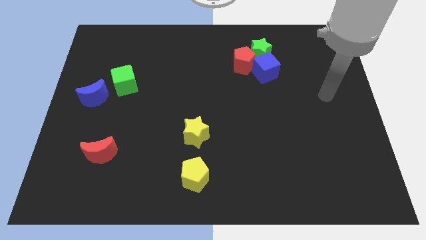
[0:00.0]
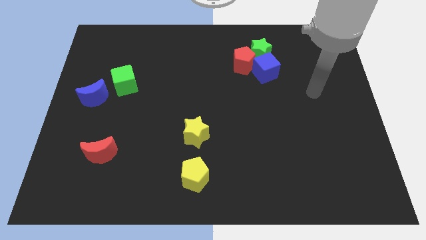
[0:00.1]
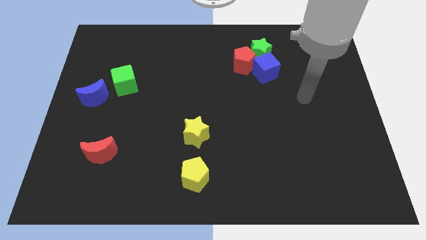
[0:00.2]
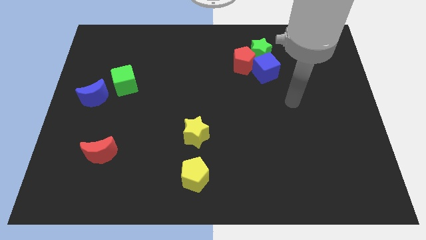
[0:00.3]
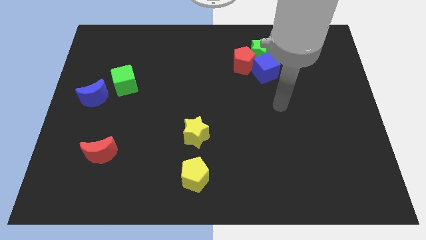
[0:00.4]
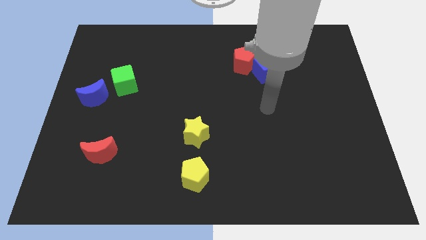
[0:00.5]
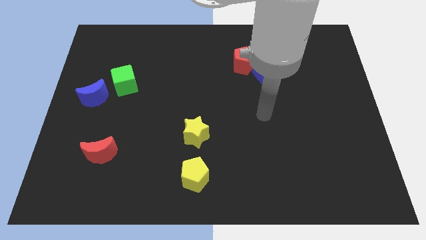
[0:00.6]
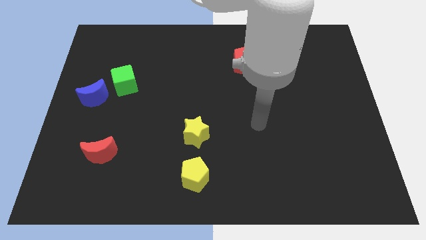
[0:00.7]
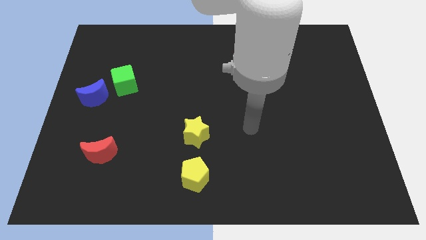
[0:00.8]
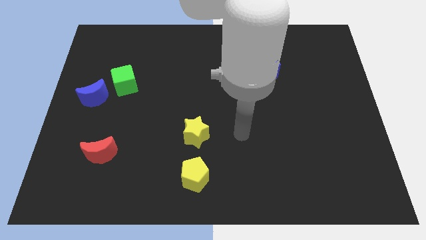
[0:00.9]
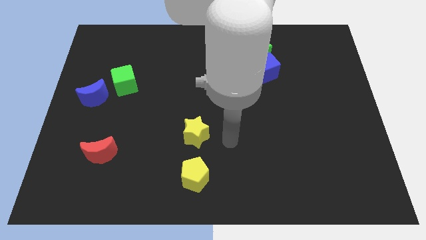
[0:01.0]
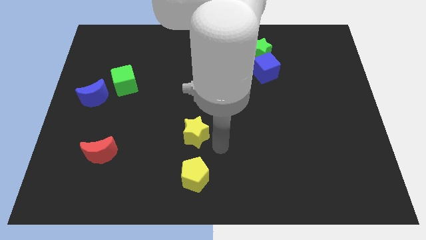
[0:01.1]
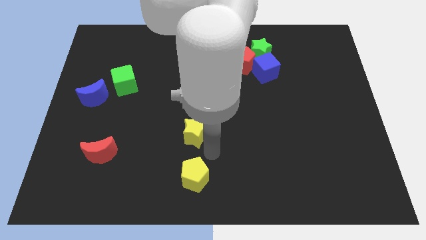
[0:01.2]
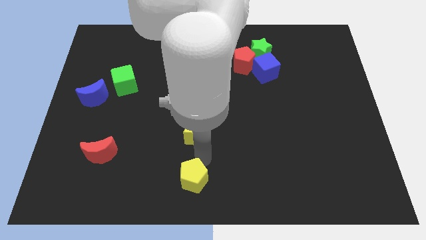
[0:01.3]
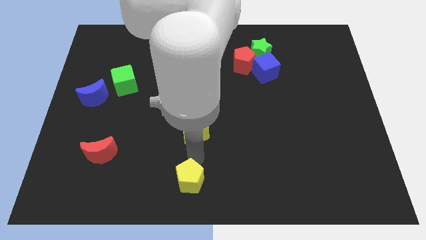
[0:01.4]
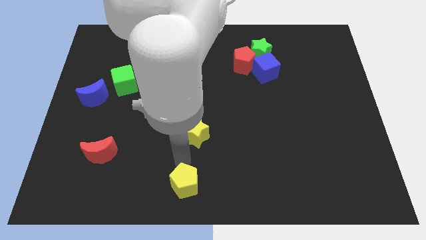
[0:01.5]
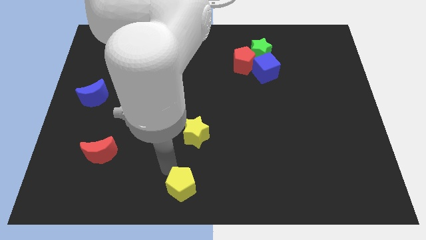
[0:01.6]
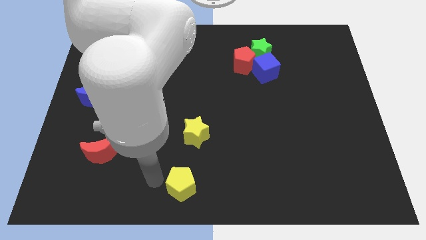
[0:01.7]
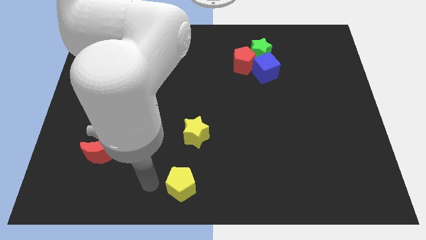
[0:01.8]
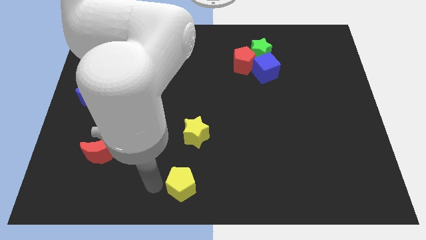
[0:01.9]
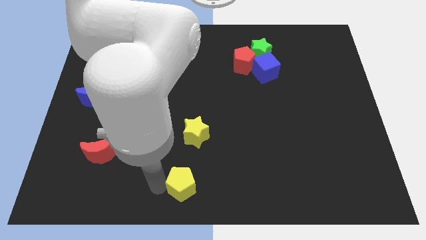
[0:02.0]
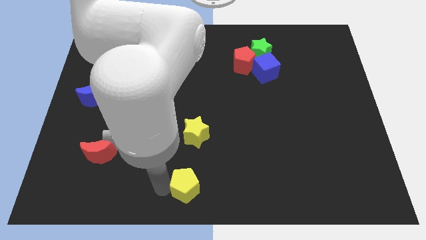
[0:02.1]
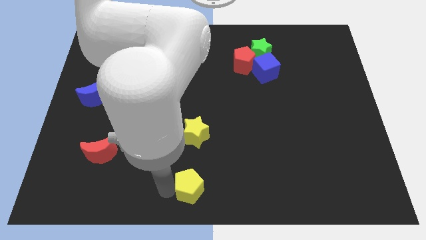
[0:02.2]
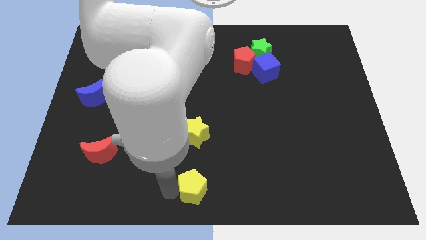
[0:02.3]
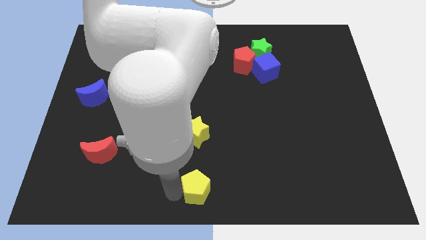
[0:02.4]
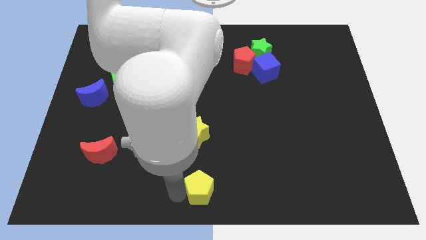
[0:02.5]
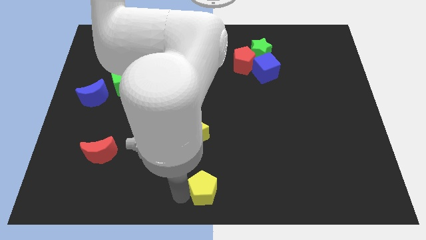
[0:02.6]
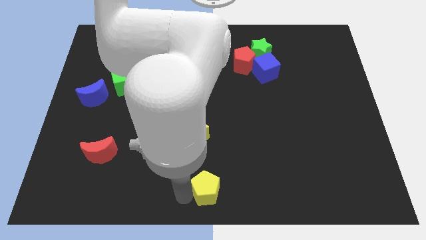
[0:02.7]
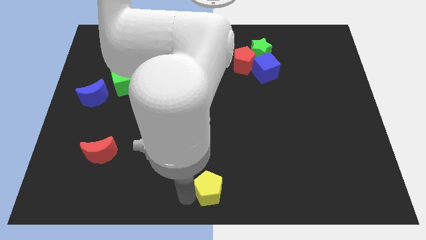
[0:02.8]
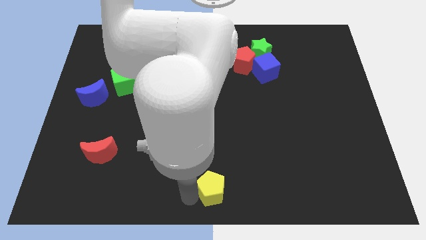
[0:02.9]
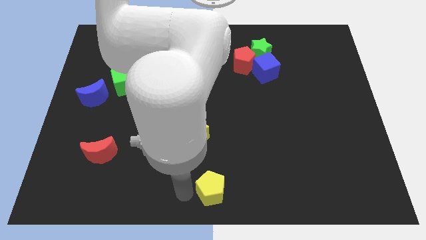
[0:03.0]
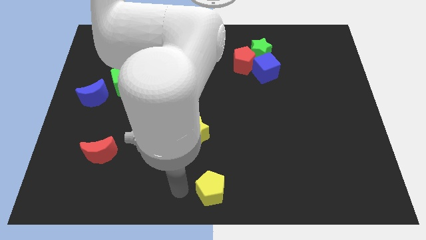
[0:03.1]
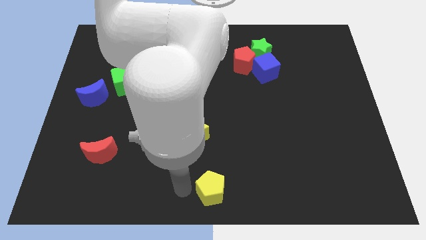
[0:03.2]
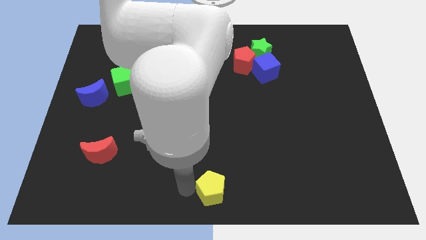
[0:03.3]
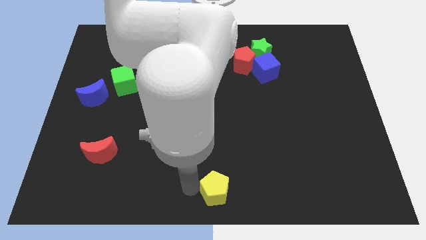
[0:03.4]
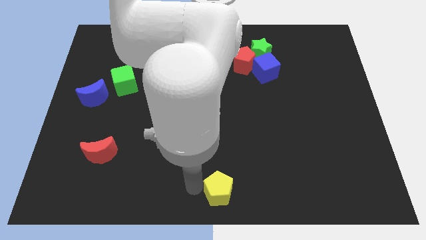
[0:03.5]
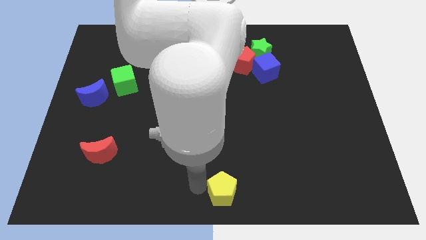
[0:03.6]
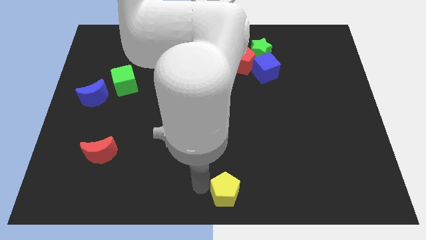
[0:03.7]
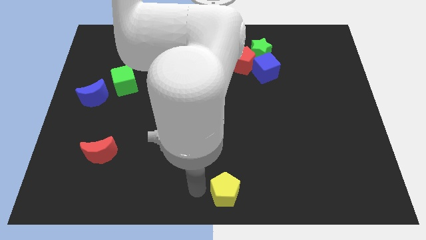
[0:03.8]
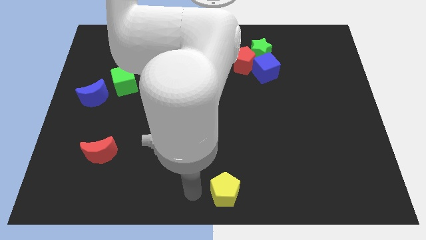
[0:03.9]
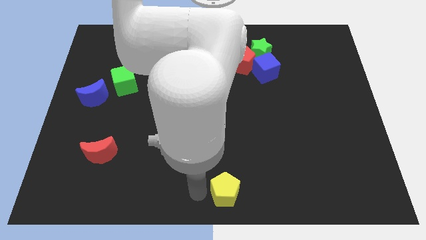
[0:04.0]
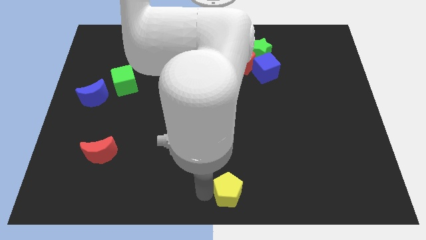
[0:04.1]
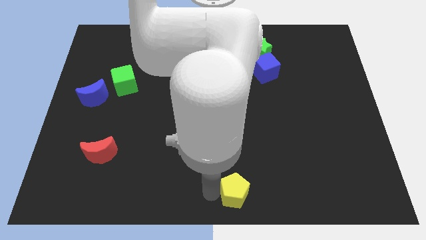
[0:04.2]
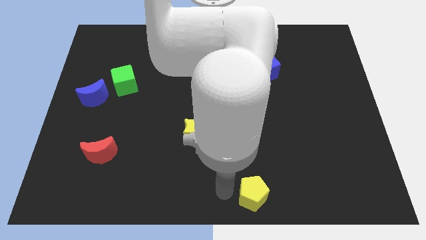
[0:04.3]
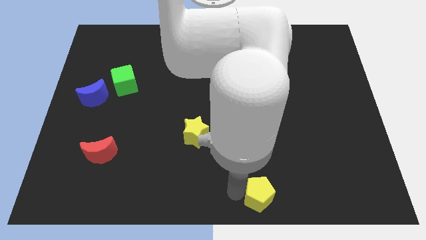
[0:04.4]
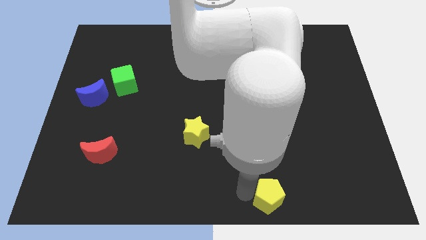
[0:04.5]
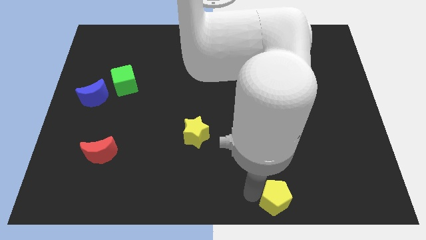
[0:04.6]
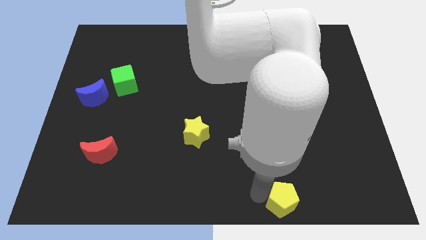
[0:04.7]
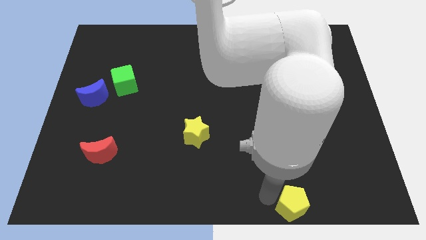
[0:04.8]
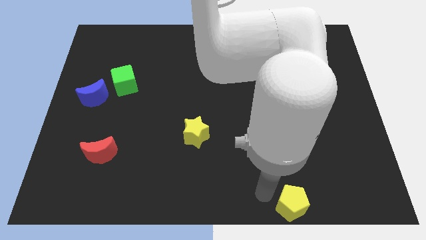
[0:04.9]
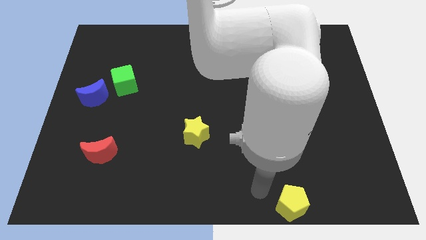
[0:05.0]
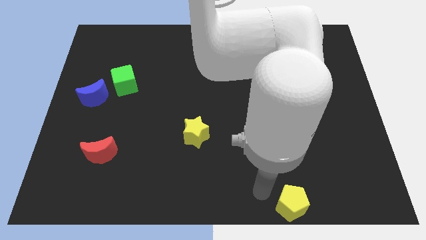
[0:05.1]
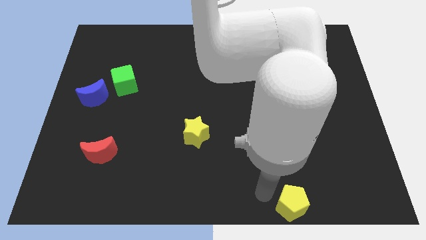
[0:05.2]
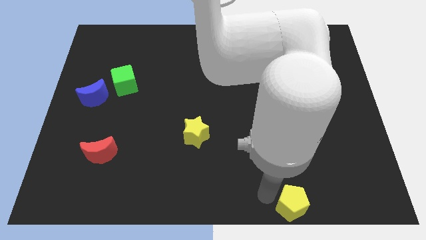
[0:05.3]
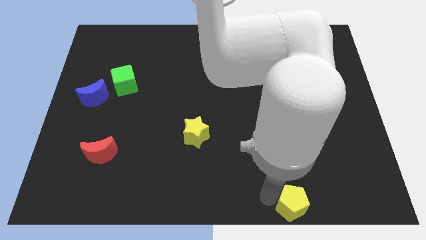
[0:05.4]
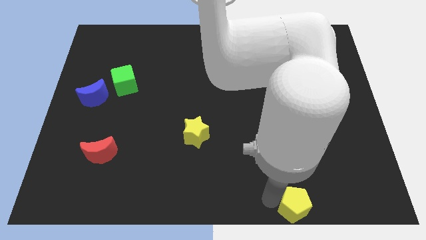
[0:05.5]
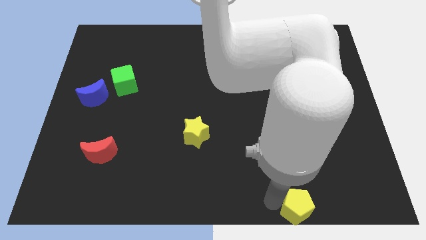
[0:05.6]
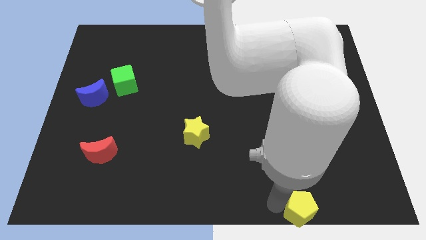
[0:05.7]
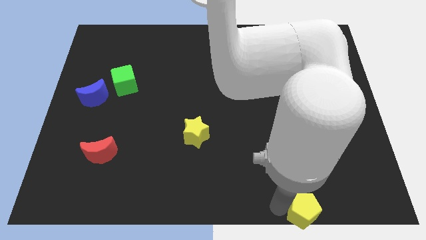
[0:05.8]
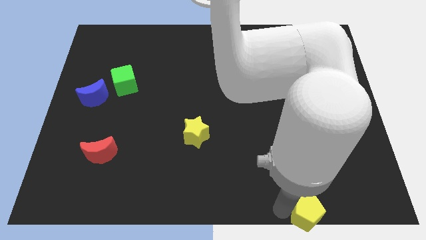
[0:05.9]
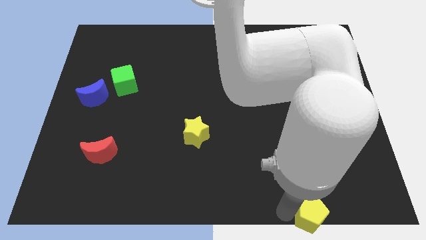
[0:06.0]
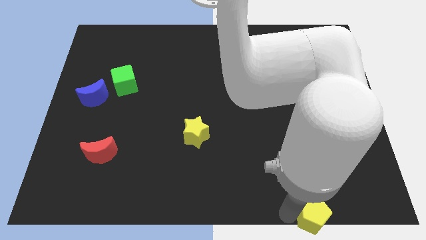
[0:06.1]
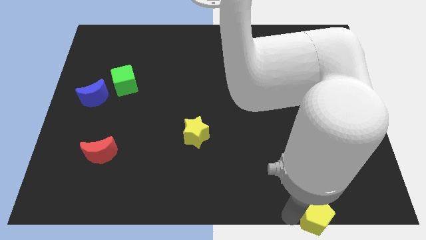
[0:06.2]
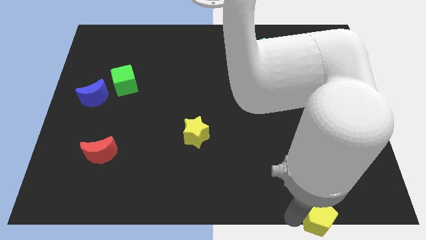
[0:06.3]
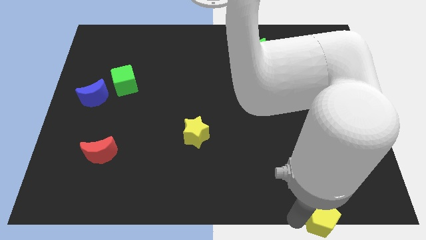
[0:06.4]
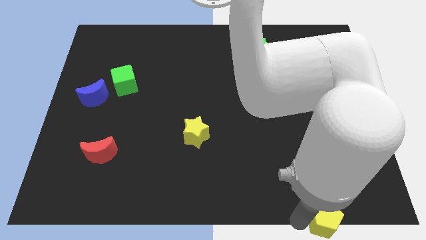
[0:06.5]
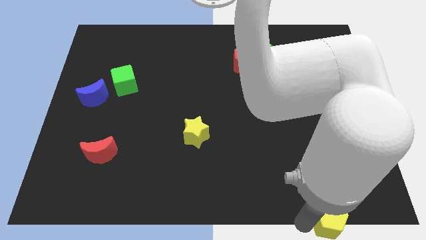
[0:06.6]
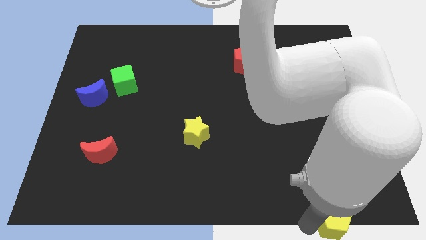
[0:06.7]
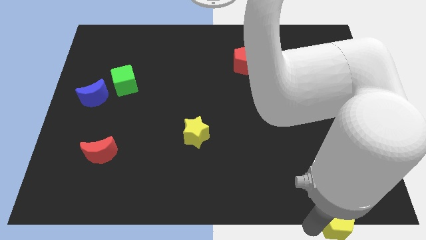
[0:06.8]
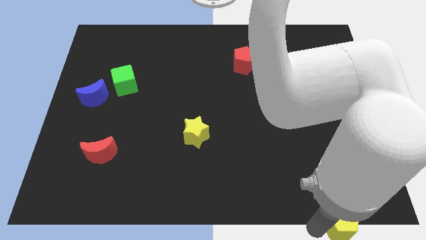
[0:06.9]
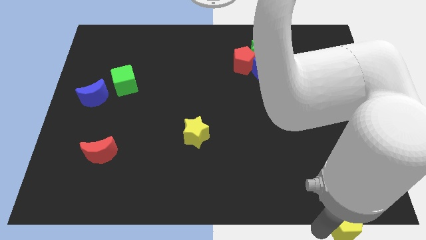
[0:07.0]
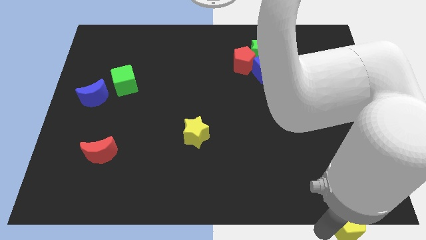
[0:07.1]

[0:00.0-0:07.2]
put the yellow pentagon to the bottom right
